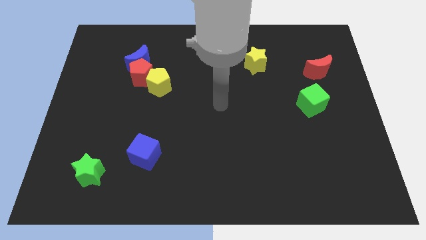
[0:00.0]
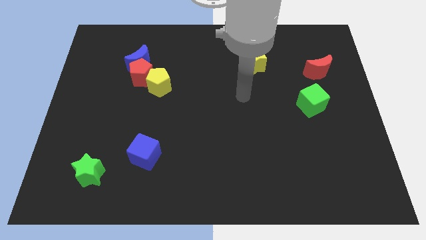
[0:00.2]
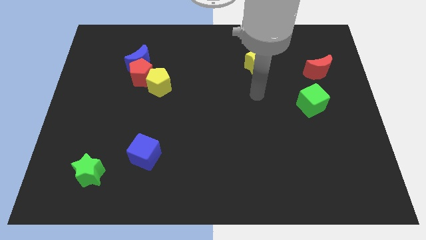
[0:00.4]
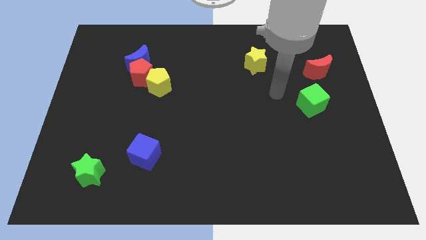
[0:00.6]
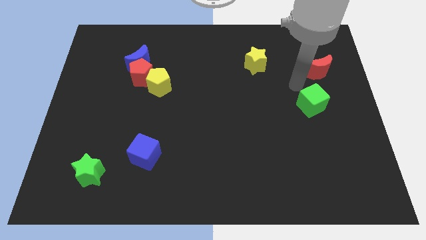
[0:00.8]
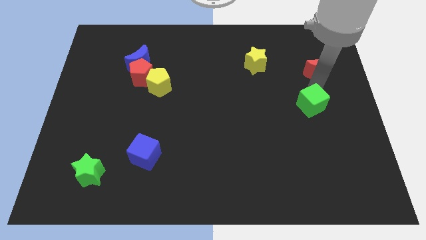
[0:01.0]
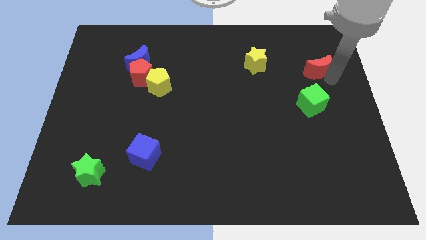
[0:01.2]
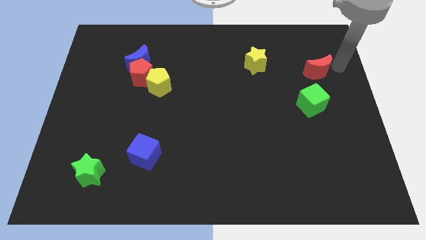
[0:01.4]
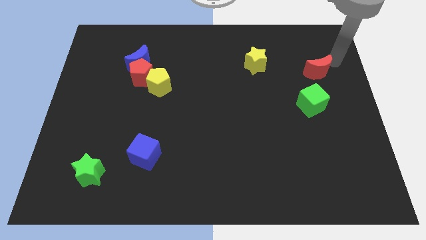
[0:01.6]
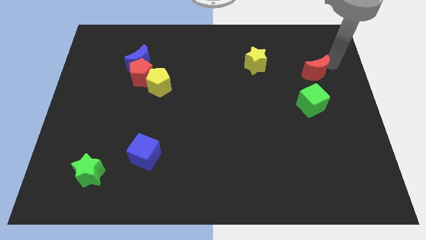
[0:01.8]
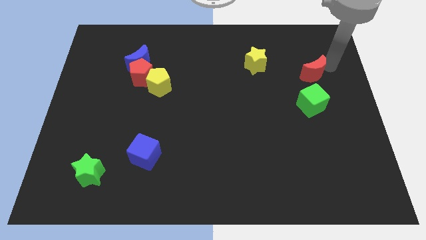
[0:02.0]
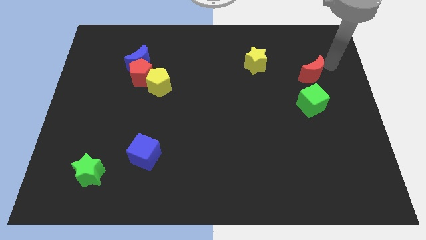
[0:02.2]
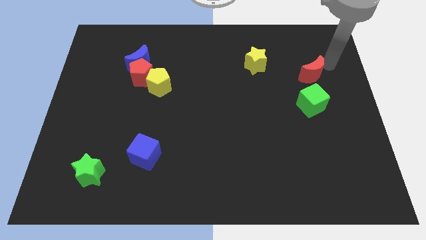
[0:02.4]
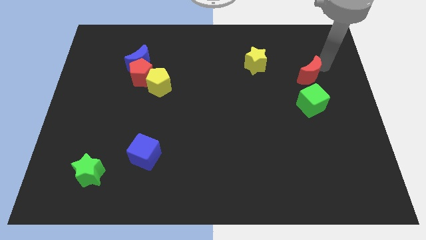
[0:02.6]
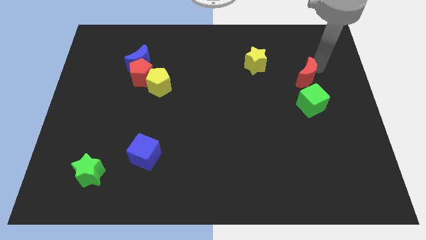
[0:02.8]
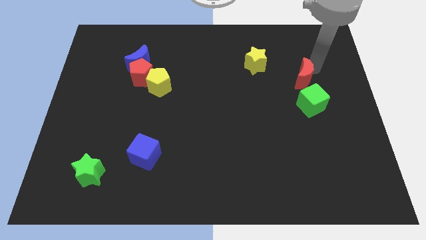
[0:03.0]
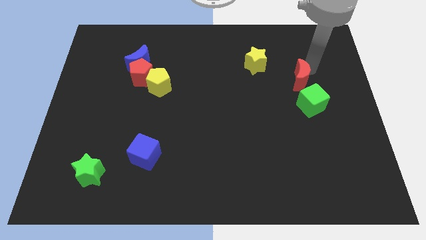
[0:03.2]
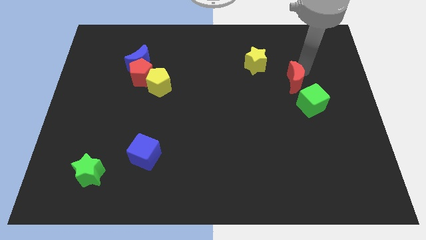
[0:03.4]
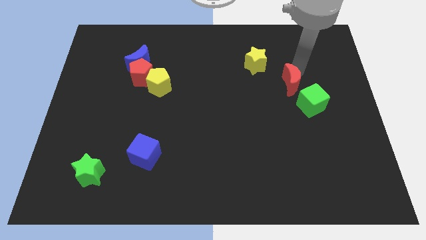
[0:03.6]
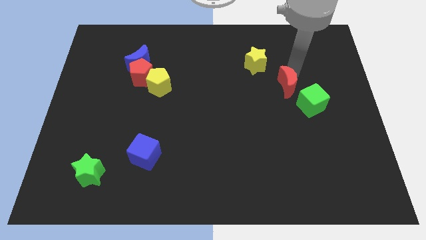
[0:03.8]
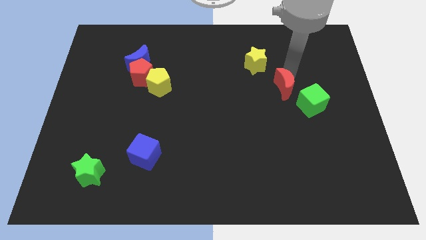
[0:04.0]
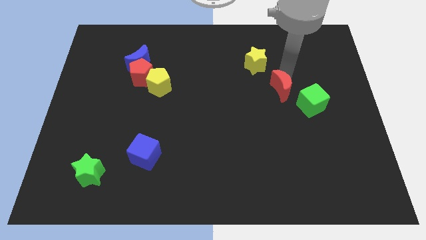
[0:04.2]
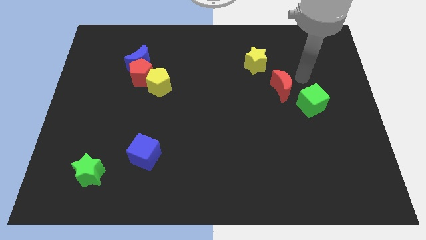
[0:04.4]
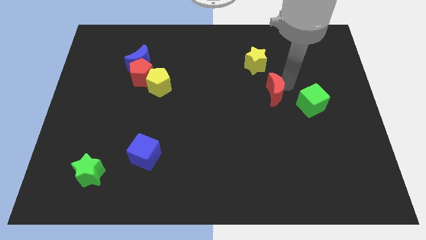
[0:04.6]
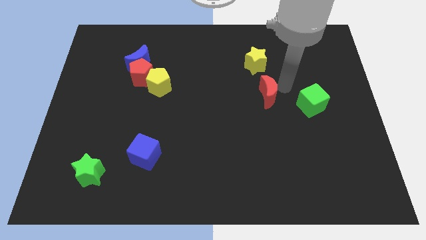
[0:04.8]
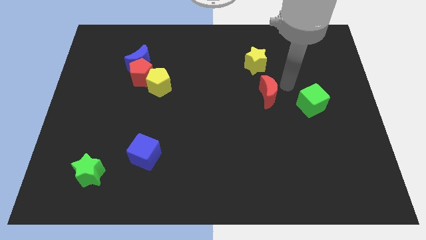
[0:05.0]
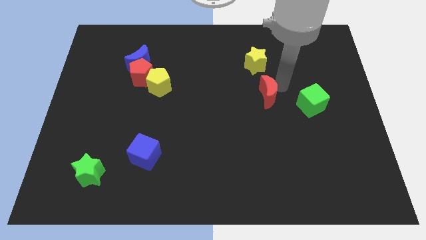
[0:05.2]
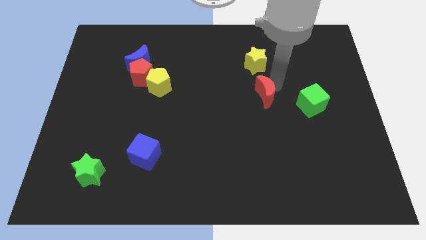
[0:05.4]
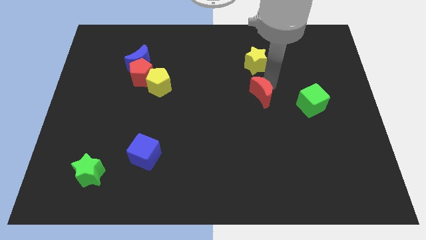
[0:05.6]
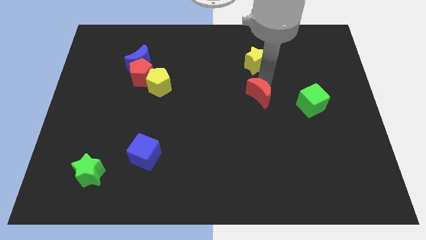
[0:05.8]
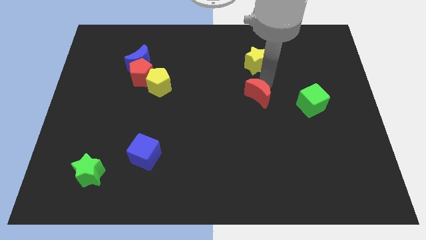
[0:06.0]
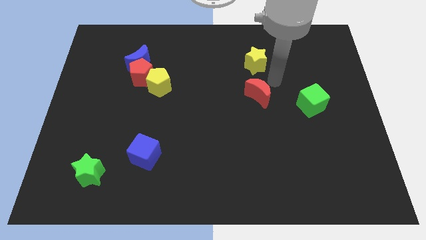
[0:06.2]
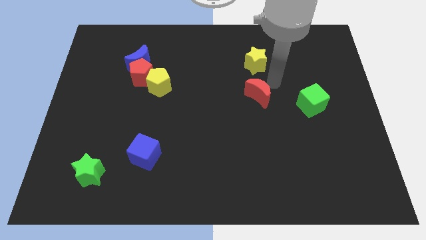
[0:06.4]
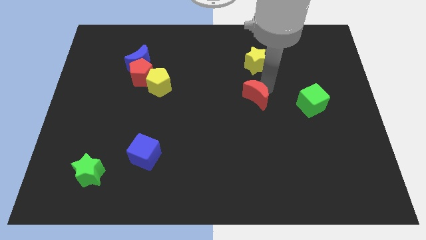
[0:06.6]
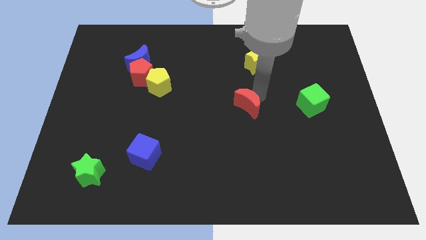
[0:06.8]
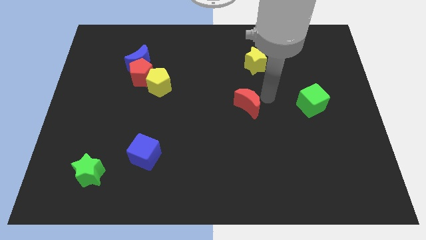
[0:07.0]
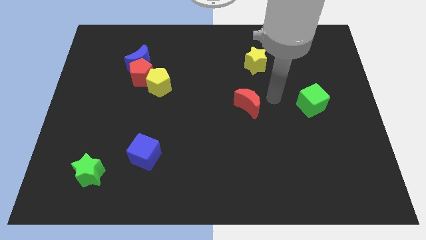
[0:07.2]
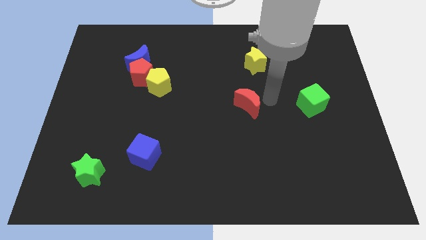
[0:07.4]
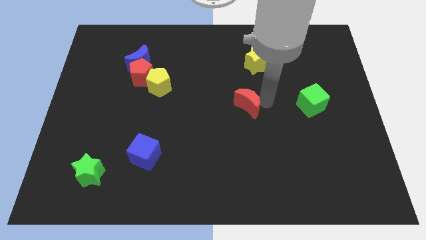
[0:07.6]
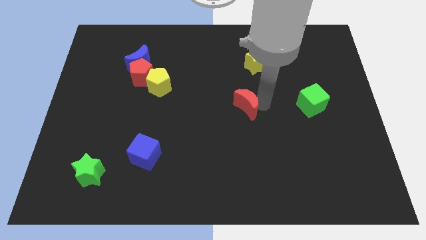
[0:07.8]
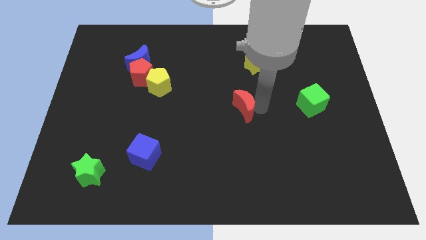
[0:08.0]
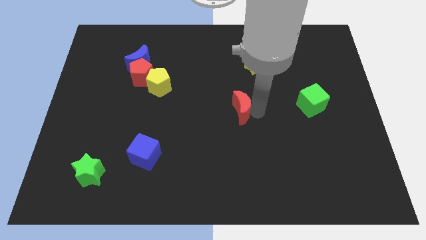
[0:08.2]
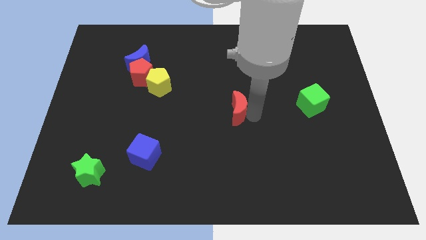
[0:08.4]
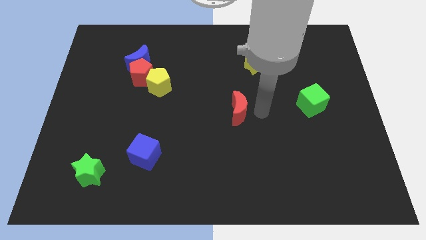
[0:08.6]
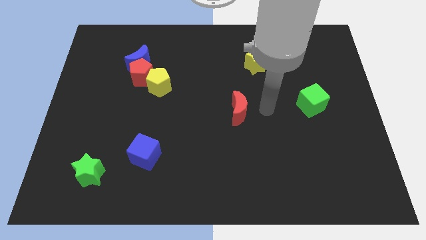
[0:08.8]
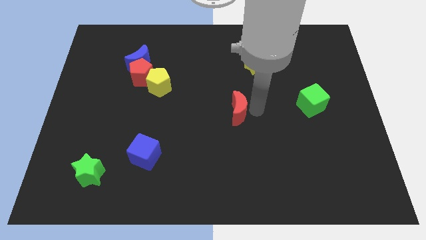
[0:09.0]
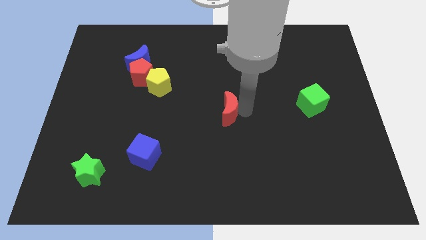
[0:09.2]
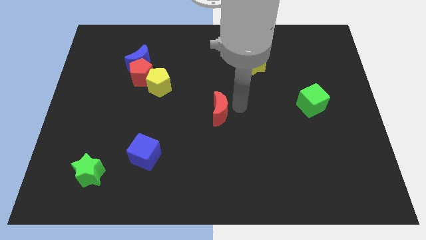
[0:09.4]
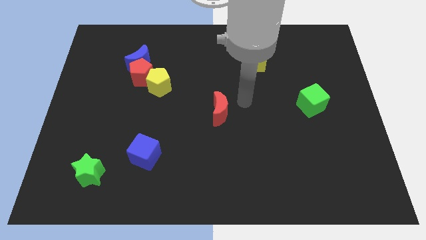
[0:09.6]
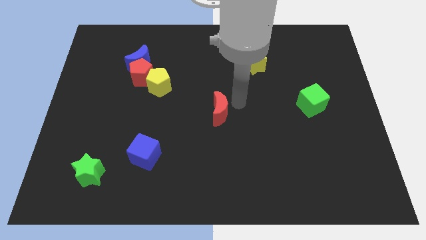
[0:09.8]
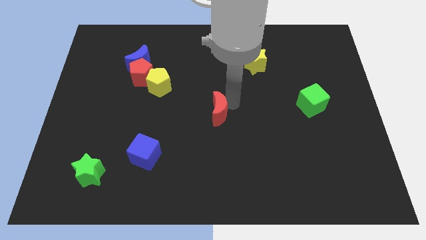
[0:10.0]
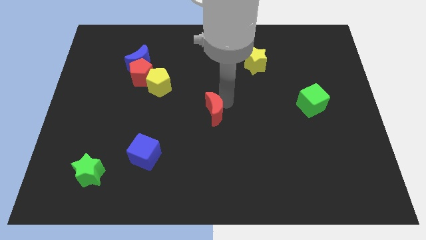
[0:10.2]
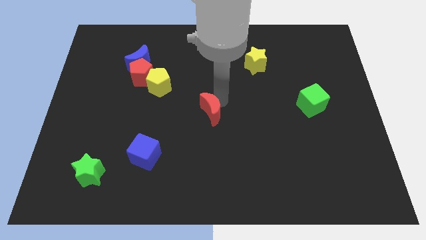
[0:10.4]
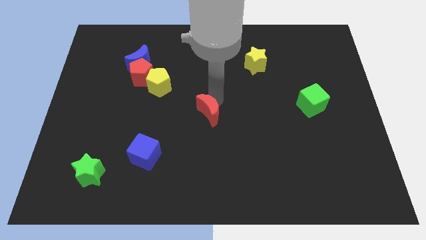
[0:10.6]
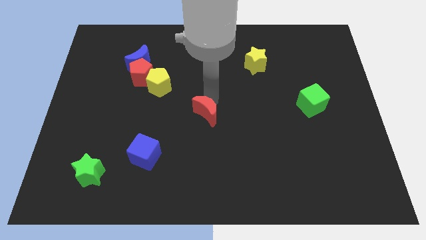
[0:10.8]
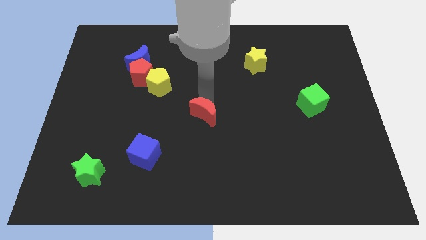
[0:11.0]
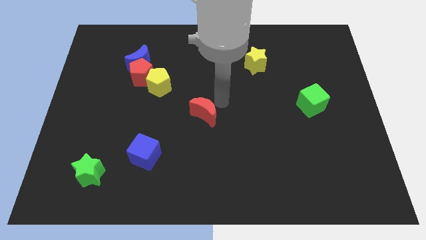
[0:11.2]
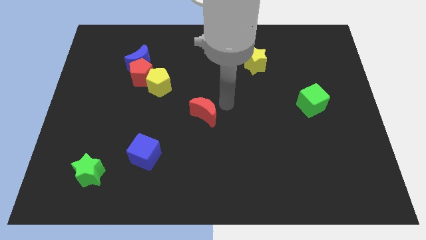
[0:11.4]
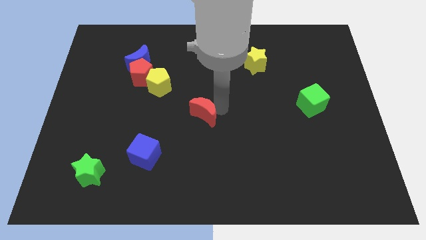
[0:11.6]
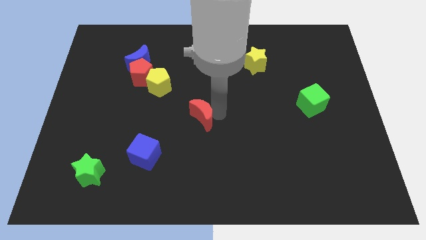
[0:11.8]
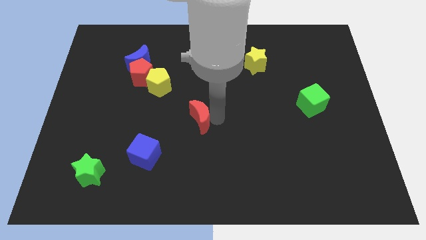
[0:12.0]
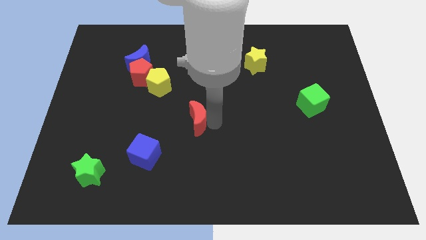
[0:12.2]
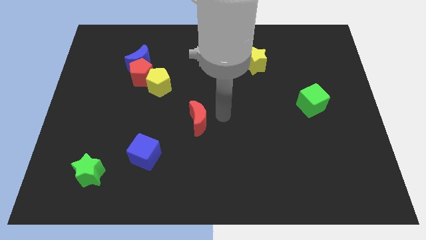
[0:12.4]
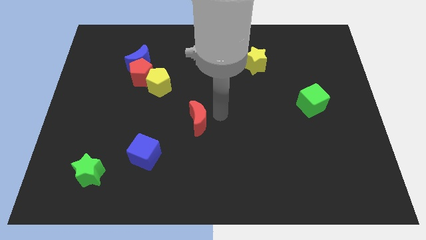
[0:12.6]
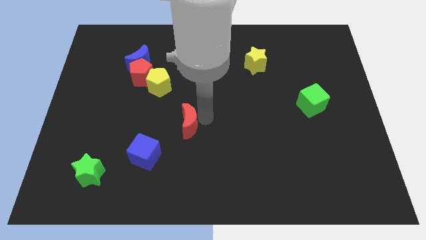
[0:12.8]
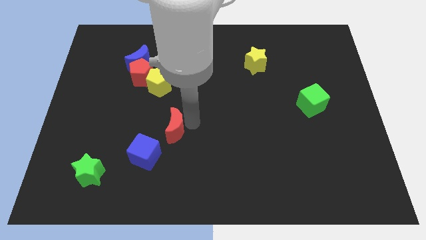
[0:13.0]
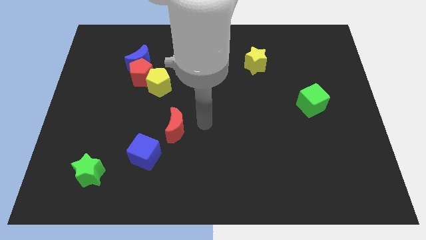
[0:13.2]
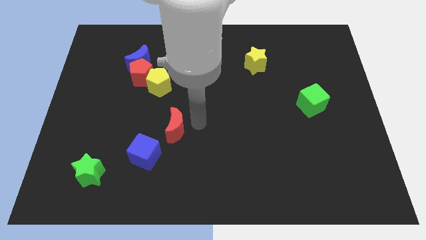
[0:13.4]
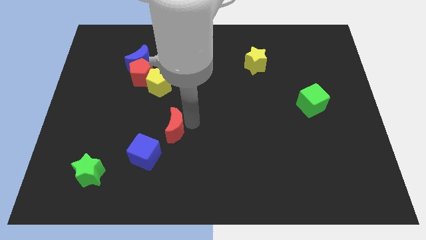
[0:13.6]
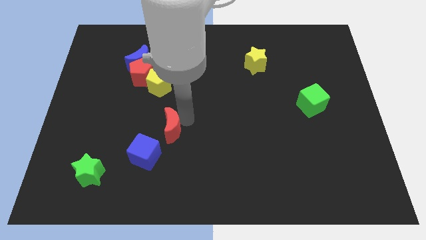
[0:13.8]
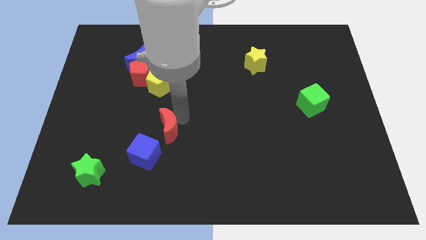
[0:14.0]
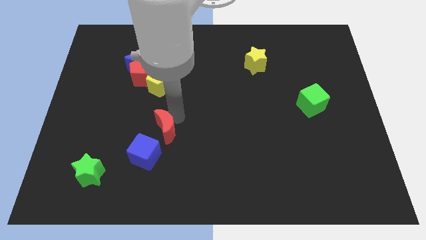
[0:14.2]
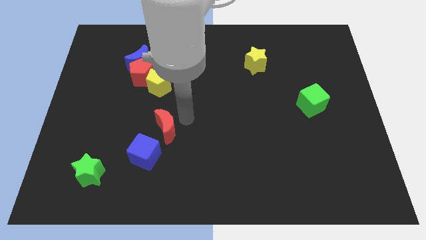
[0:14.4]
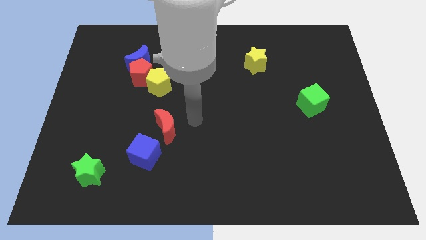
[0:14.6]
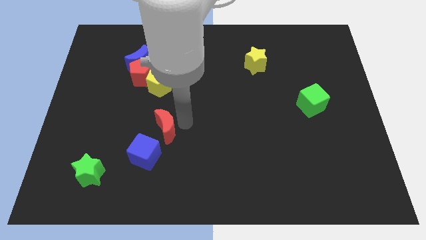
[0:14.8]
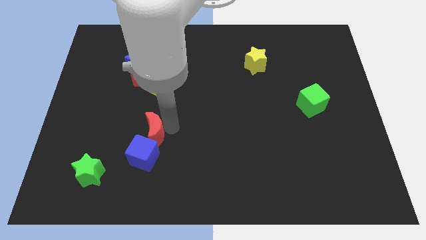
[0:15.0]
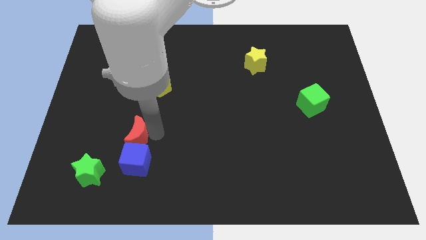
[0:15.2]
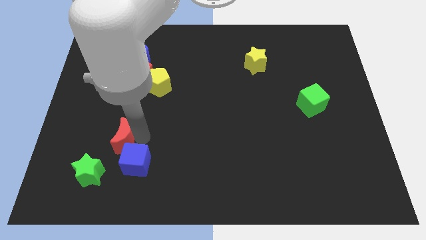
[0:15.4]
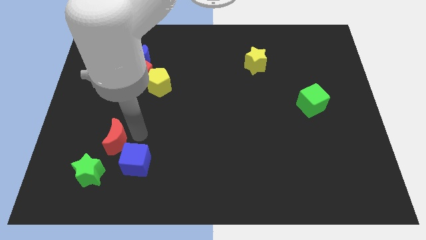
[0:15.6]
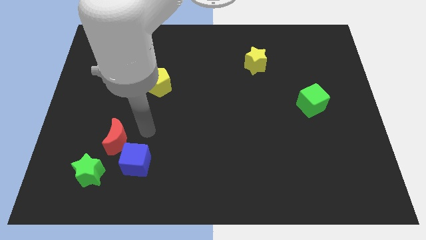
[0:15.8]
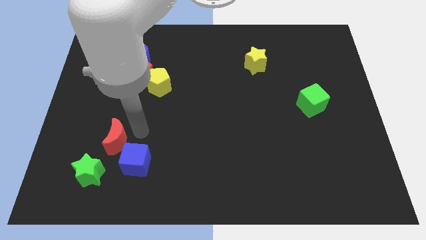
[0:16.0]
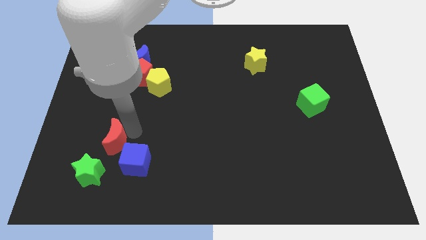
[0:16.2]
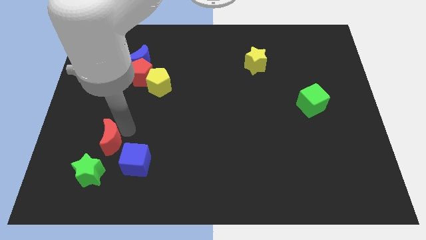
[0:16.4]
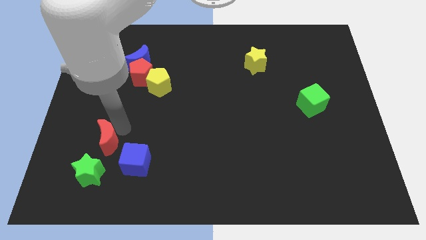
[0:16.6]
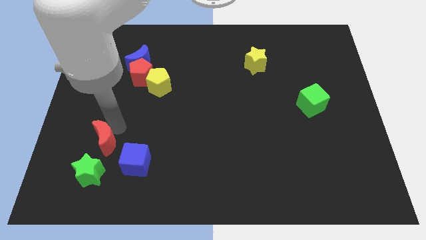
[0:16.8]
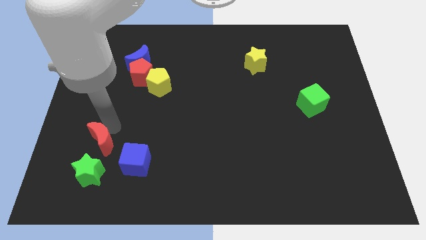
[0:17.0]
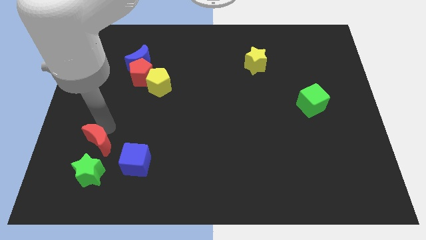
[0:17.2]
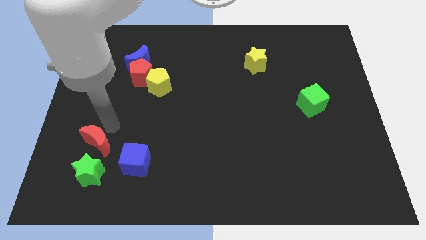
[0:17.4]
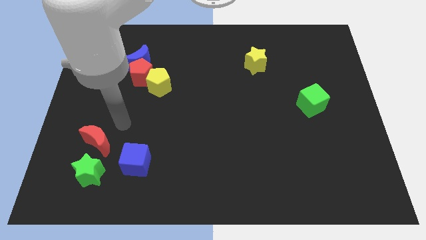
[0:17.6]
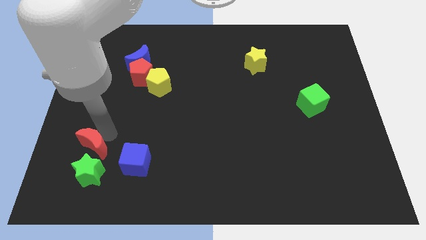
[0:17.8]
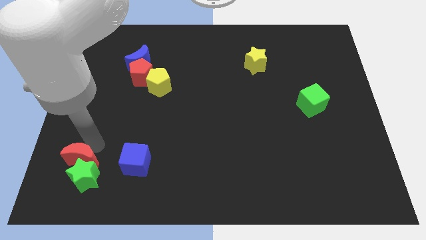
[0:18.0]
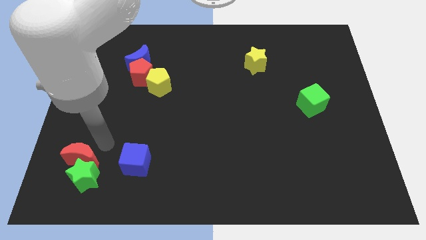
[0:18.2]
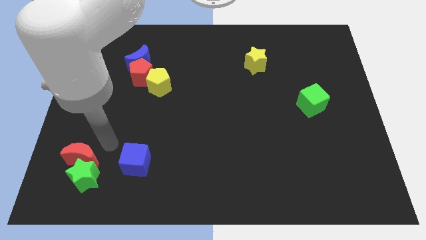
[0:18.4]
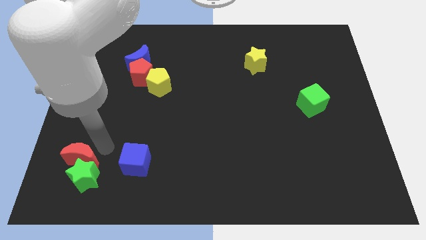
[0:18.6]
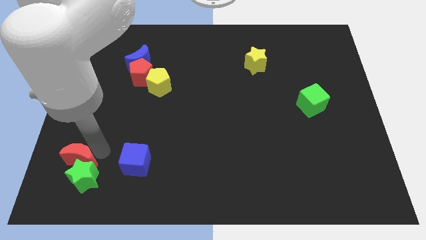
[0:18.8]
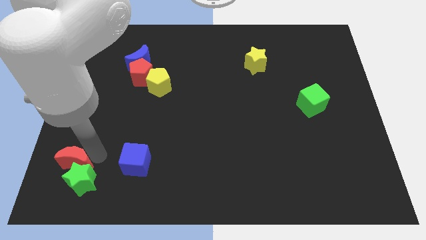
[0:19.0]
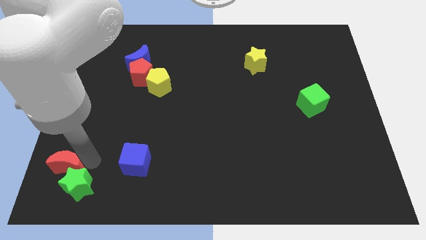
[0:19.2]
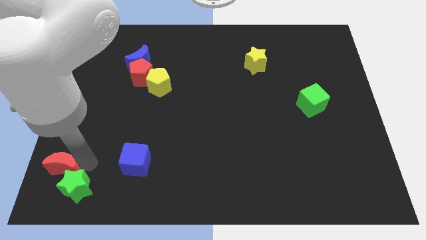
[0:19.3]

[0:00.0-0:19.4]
put the red moon to the bottom left
